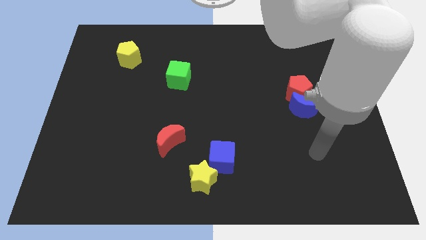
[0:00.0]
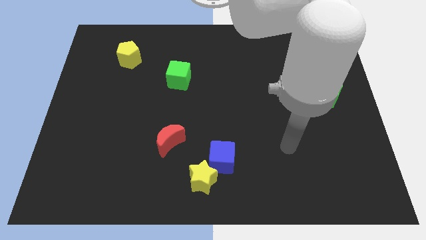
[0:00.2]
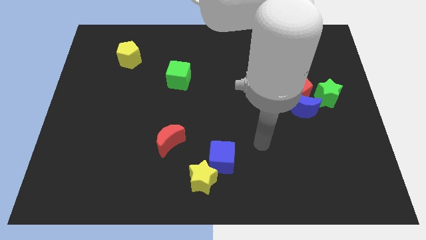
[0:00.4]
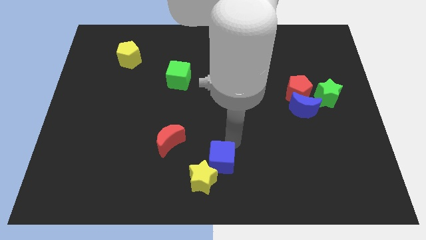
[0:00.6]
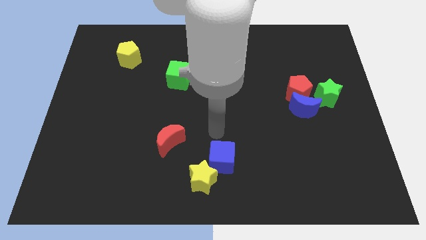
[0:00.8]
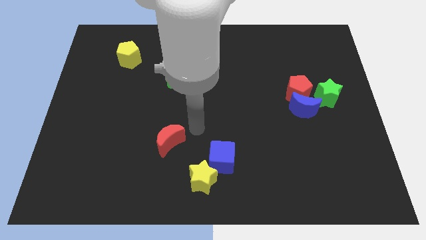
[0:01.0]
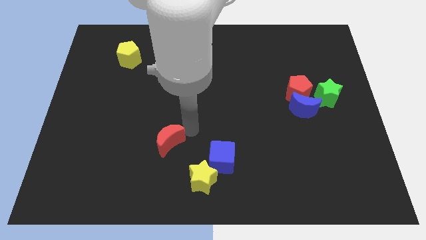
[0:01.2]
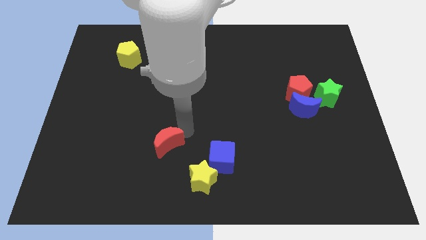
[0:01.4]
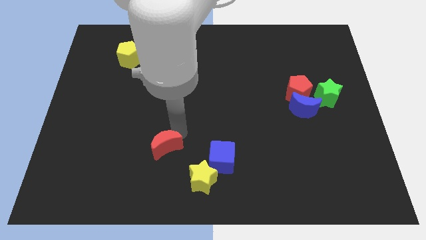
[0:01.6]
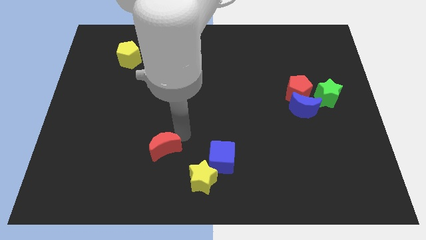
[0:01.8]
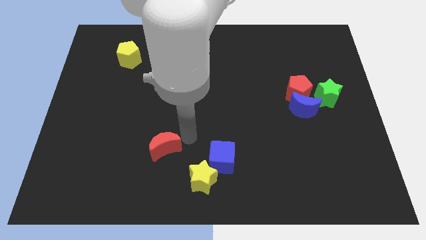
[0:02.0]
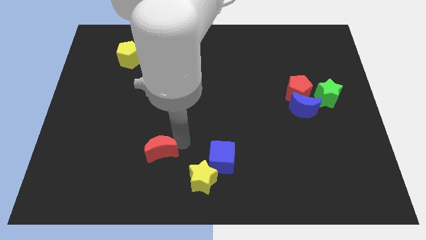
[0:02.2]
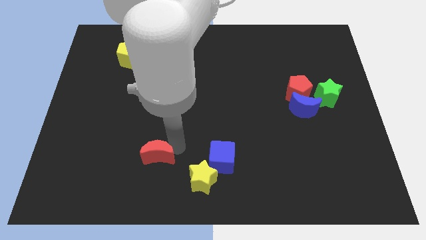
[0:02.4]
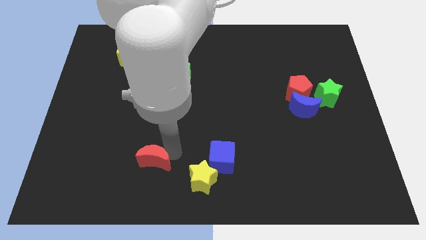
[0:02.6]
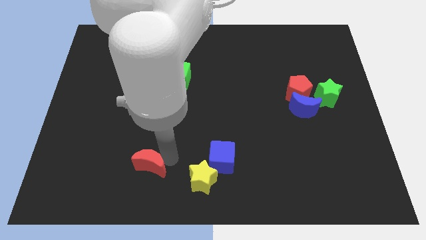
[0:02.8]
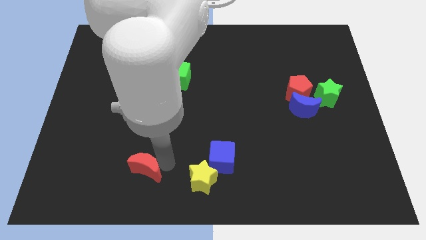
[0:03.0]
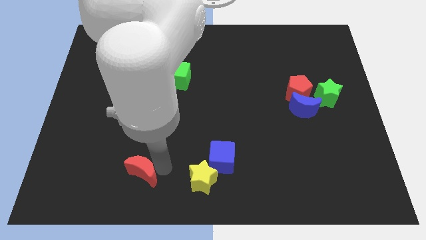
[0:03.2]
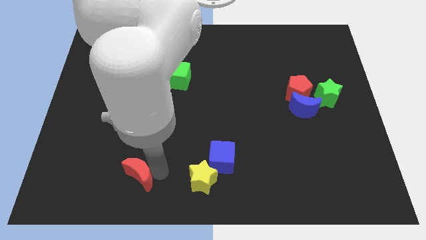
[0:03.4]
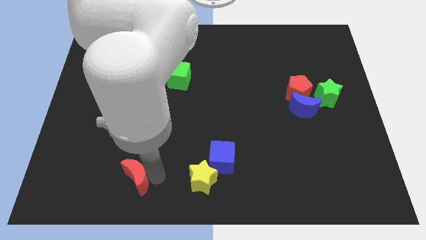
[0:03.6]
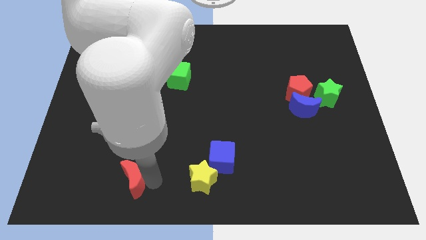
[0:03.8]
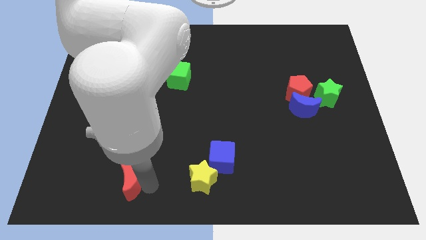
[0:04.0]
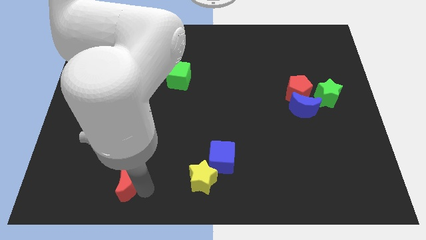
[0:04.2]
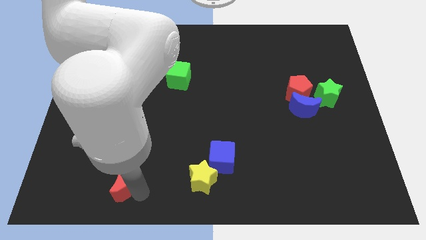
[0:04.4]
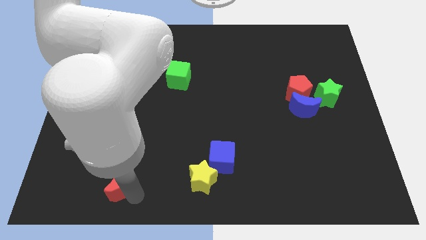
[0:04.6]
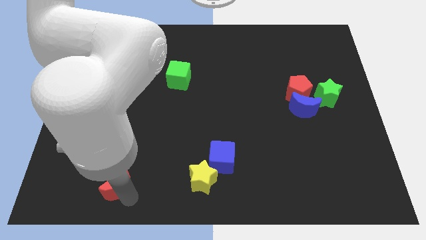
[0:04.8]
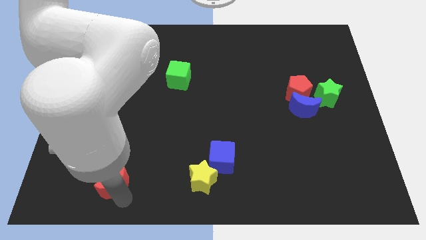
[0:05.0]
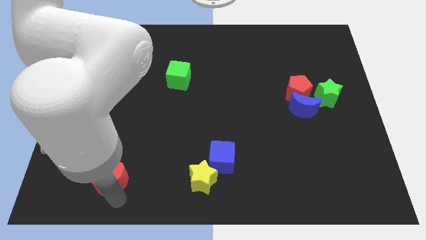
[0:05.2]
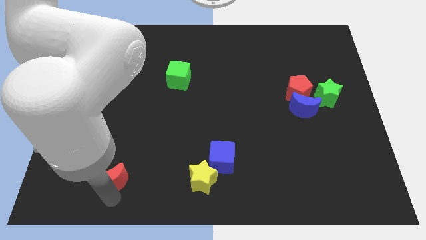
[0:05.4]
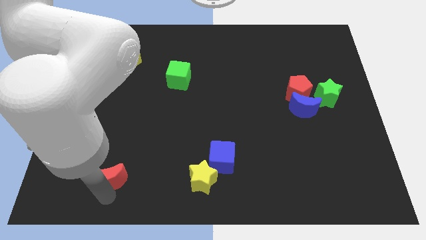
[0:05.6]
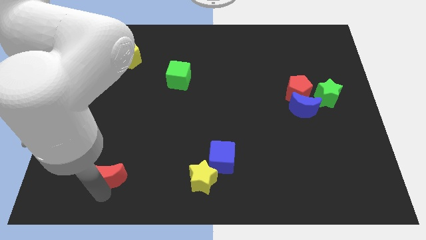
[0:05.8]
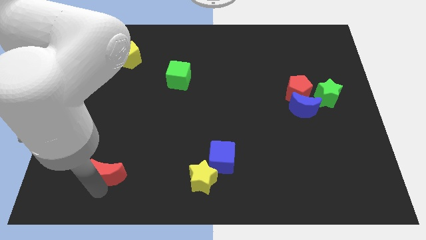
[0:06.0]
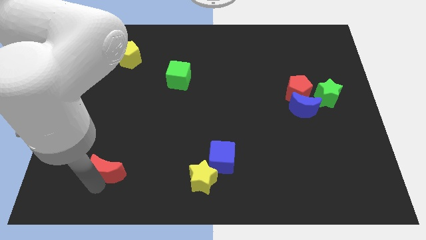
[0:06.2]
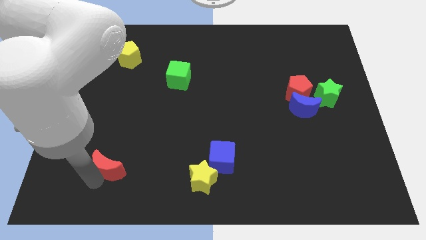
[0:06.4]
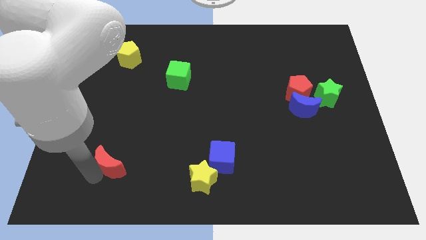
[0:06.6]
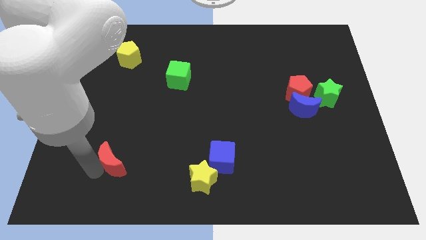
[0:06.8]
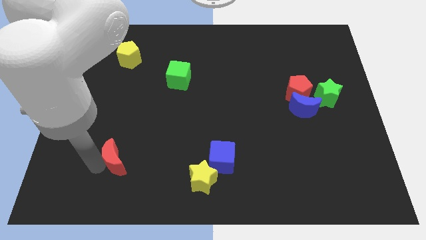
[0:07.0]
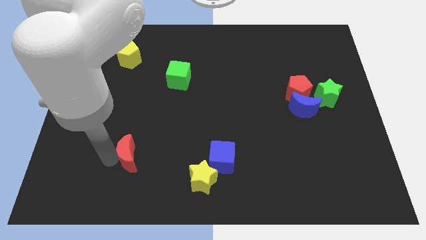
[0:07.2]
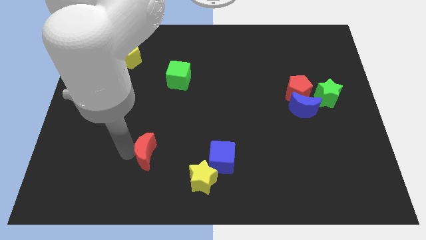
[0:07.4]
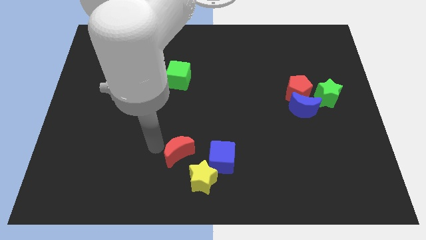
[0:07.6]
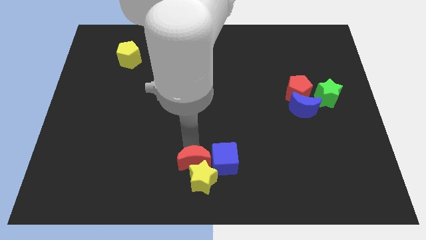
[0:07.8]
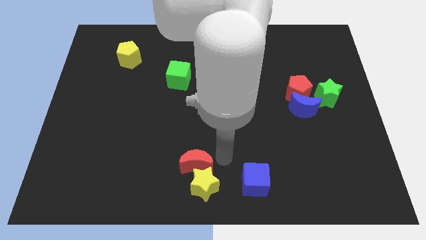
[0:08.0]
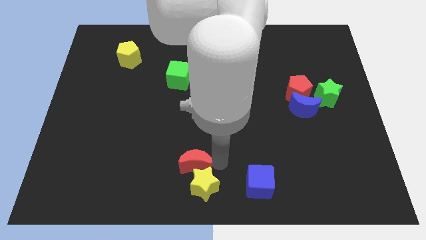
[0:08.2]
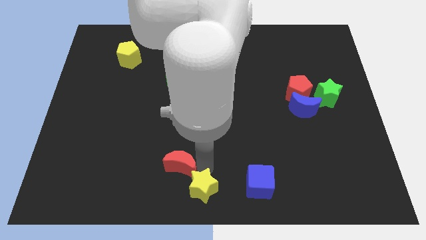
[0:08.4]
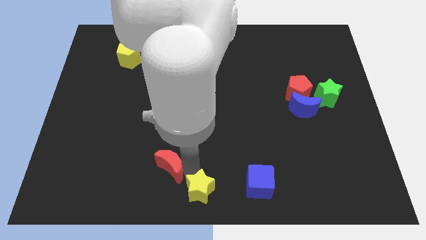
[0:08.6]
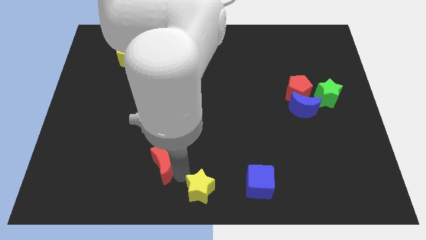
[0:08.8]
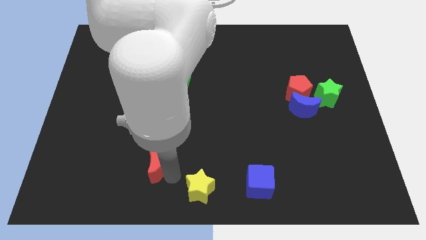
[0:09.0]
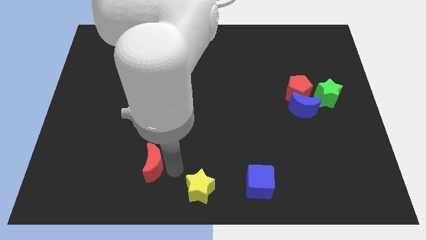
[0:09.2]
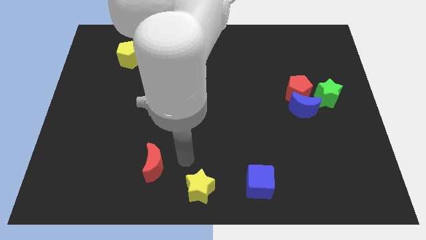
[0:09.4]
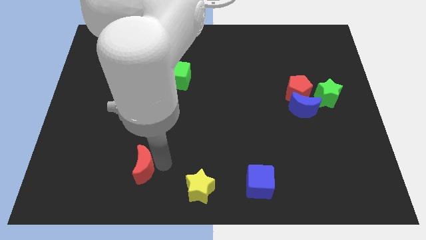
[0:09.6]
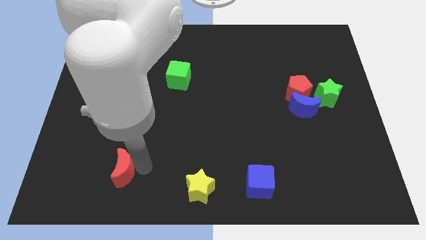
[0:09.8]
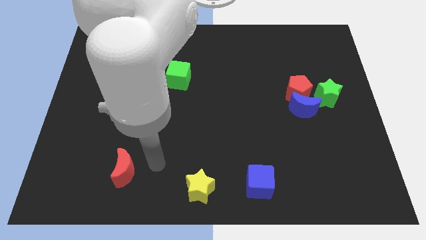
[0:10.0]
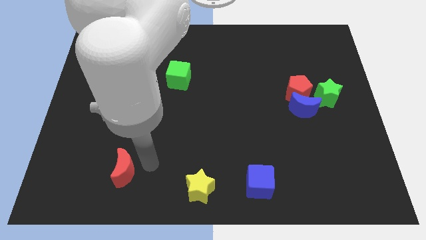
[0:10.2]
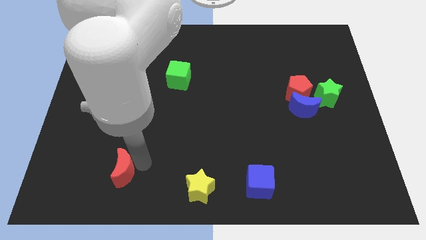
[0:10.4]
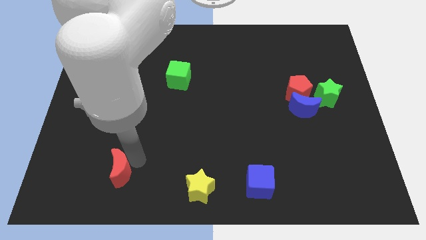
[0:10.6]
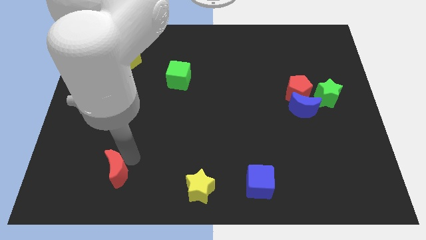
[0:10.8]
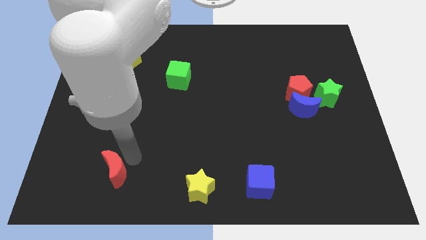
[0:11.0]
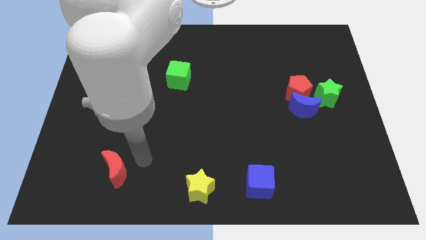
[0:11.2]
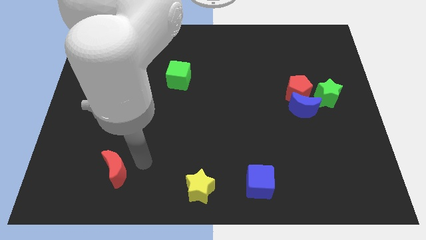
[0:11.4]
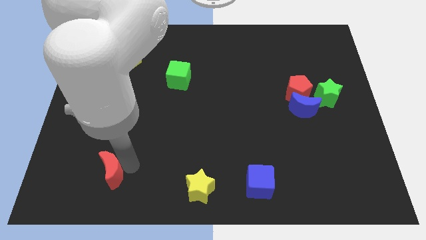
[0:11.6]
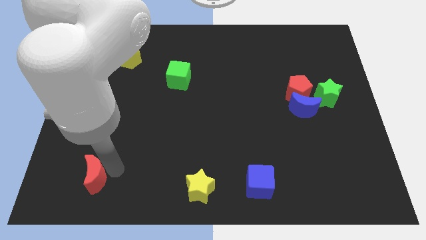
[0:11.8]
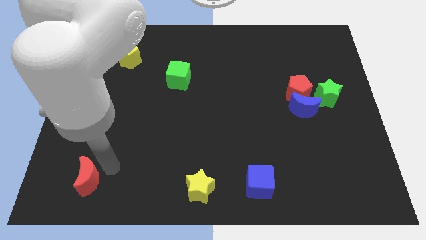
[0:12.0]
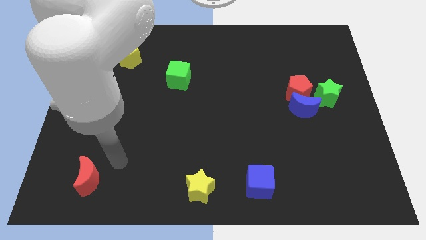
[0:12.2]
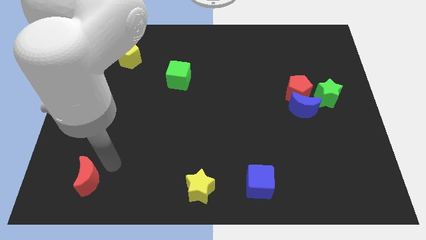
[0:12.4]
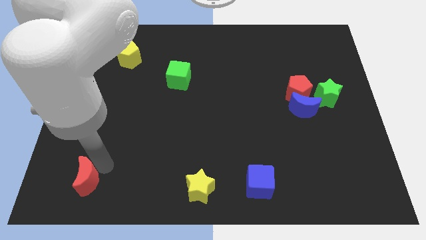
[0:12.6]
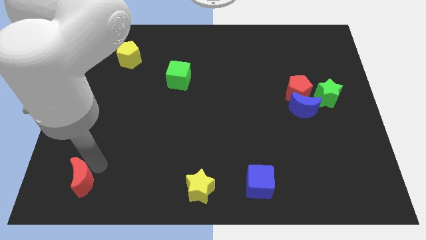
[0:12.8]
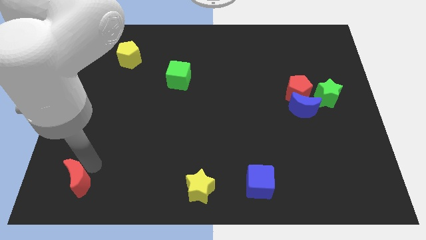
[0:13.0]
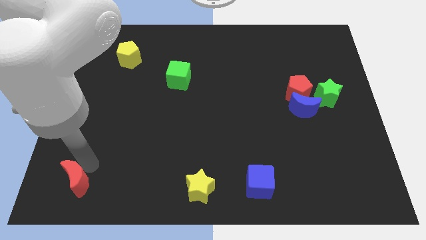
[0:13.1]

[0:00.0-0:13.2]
move the red moon to the bottom left corner
